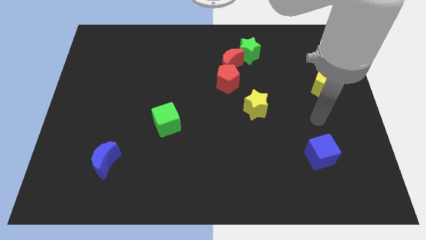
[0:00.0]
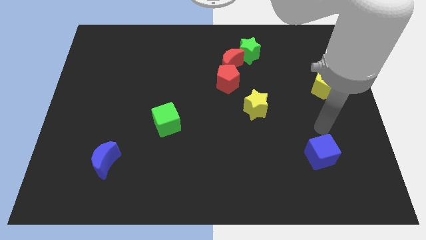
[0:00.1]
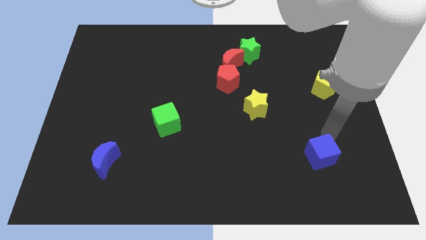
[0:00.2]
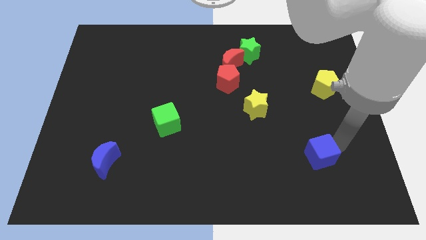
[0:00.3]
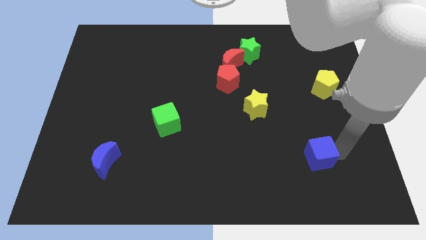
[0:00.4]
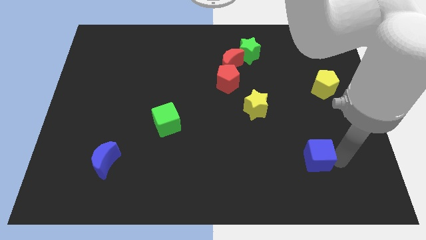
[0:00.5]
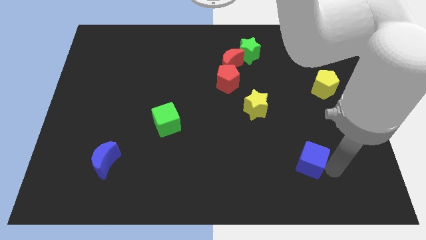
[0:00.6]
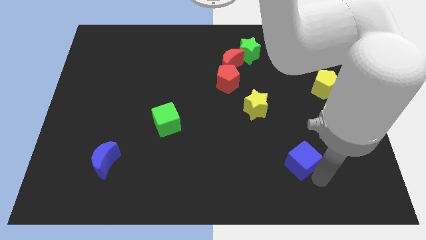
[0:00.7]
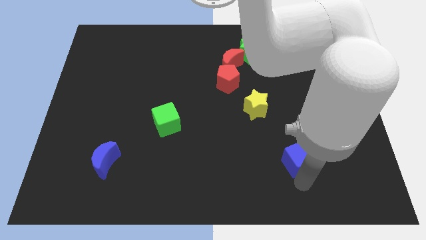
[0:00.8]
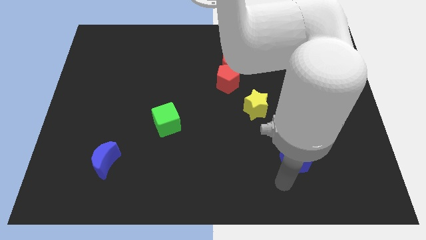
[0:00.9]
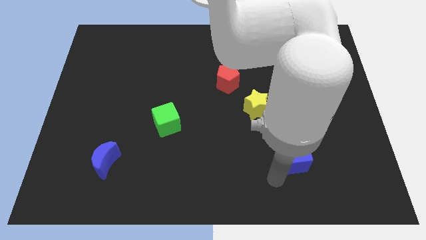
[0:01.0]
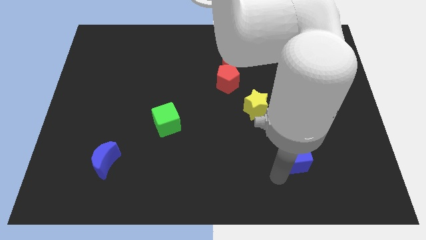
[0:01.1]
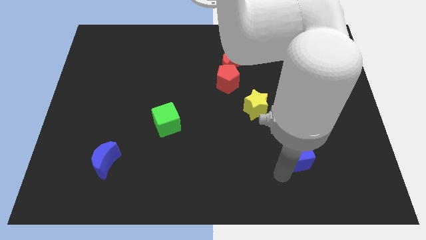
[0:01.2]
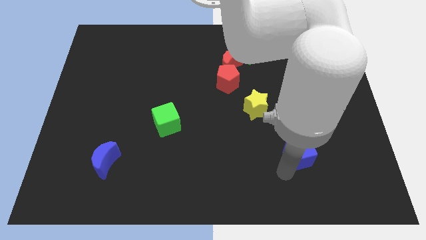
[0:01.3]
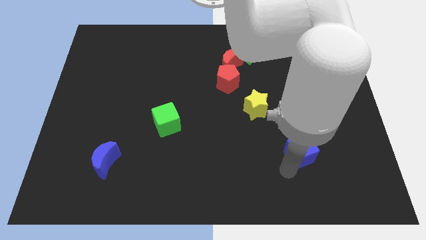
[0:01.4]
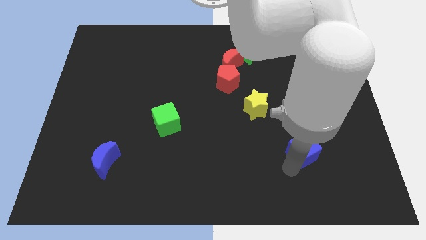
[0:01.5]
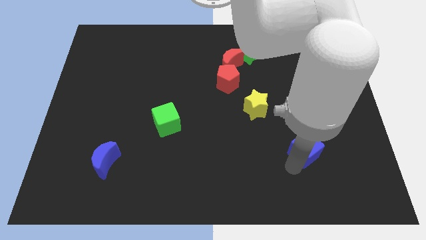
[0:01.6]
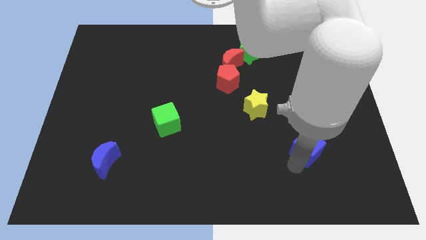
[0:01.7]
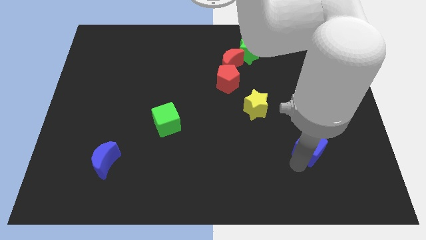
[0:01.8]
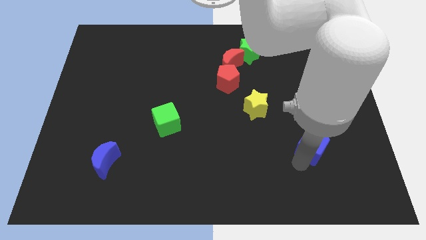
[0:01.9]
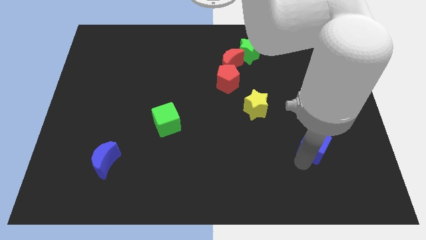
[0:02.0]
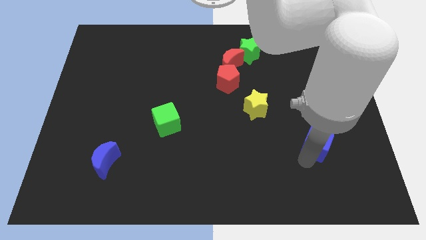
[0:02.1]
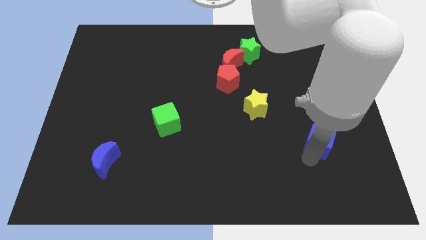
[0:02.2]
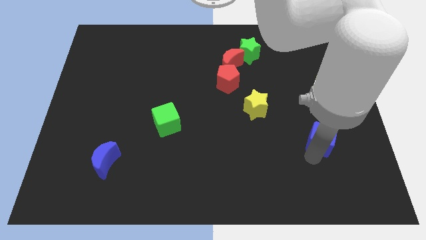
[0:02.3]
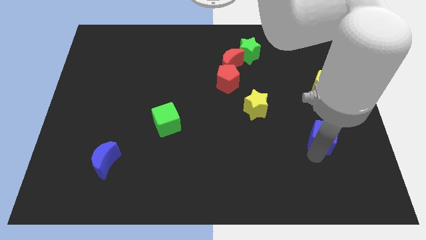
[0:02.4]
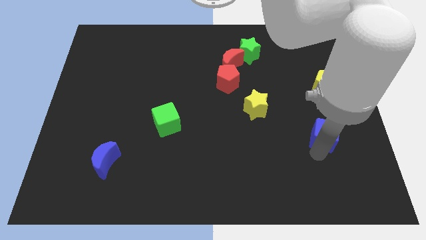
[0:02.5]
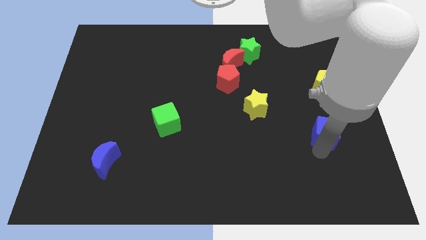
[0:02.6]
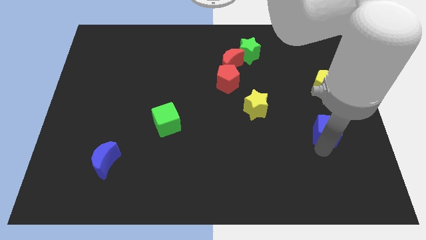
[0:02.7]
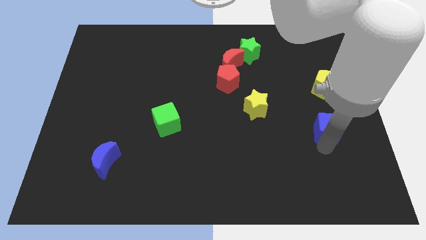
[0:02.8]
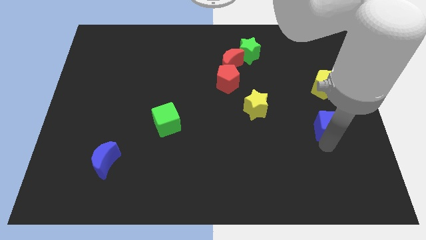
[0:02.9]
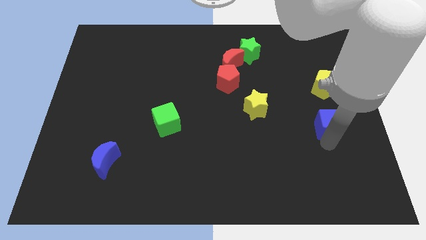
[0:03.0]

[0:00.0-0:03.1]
slide the blue cube a bit upwards

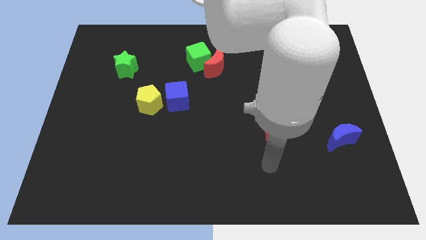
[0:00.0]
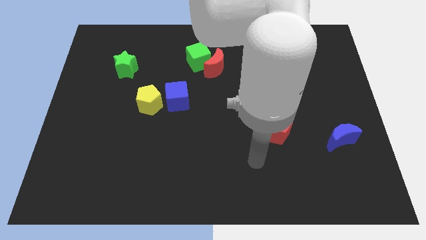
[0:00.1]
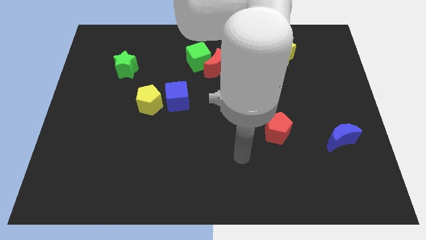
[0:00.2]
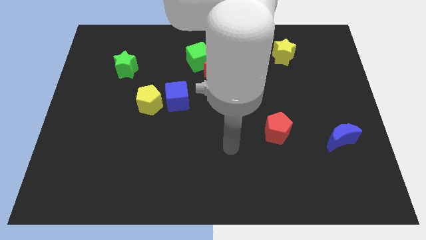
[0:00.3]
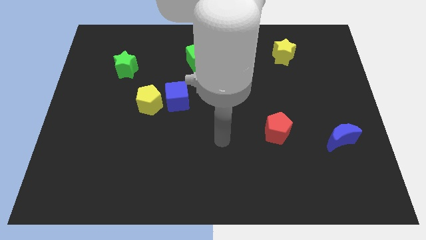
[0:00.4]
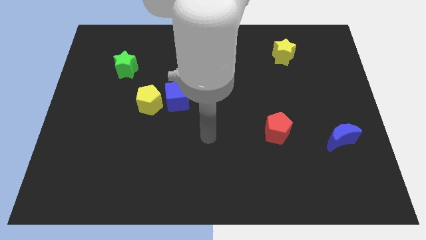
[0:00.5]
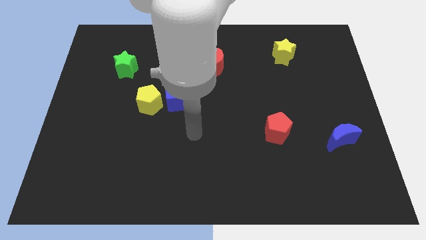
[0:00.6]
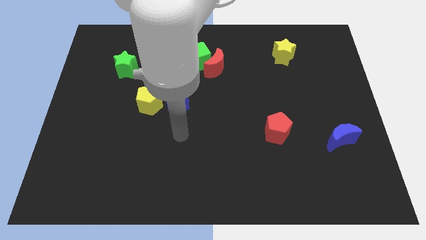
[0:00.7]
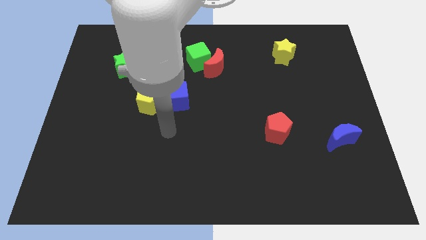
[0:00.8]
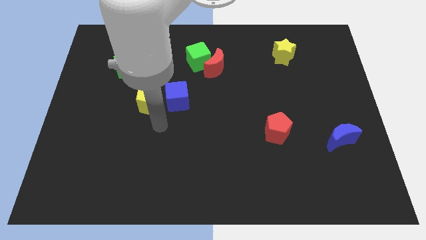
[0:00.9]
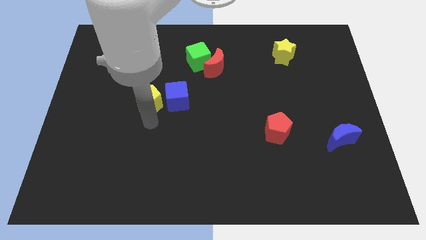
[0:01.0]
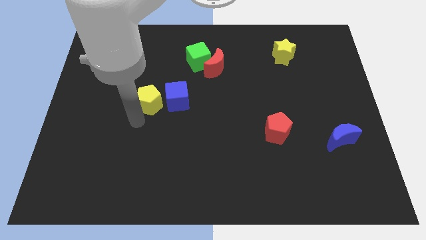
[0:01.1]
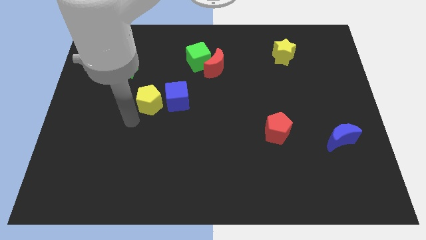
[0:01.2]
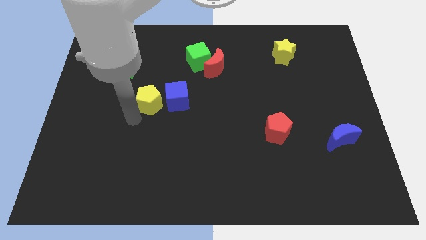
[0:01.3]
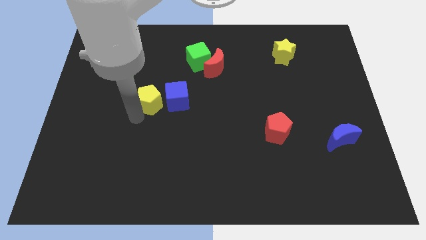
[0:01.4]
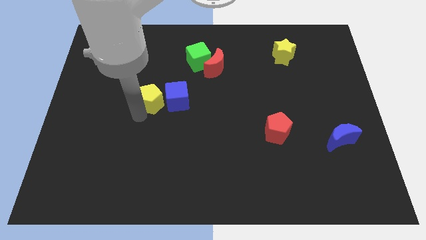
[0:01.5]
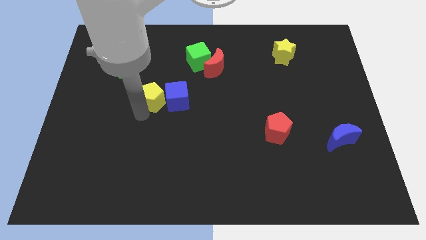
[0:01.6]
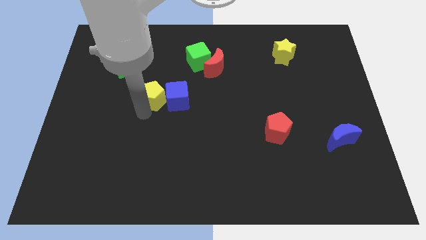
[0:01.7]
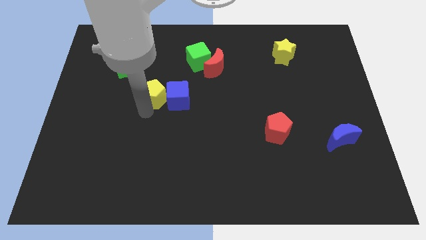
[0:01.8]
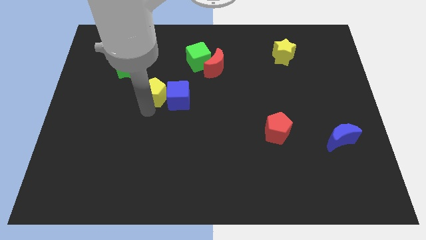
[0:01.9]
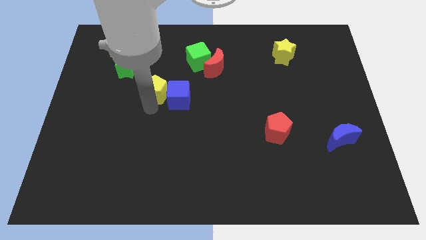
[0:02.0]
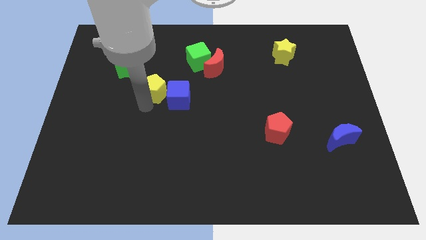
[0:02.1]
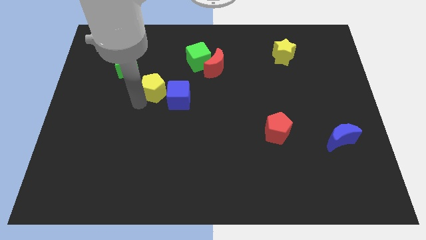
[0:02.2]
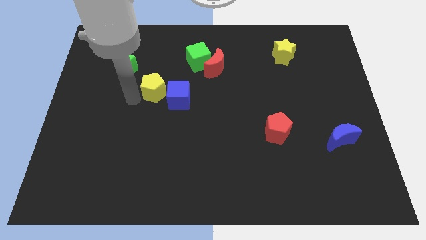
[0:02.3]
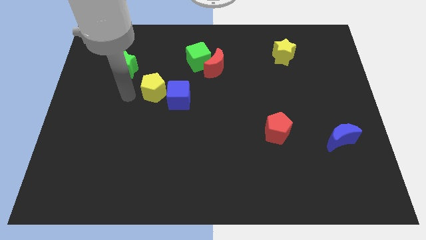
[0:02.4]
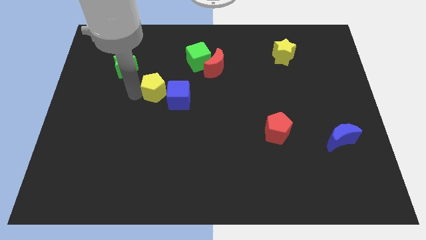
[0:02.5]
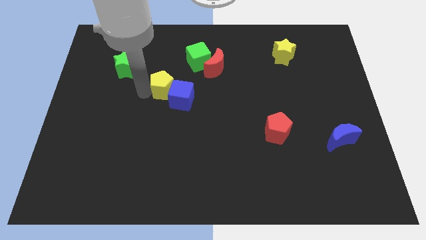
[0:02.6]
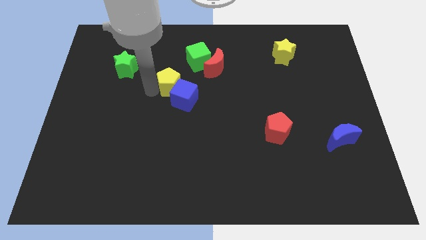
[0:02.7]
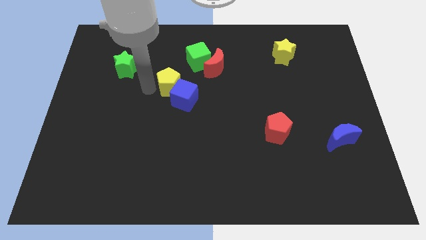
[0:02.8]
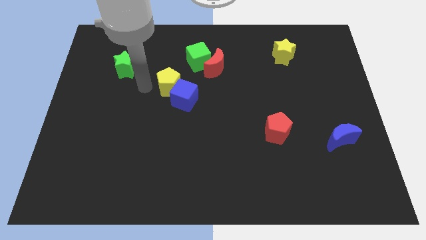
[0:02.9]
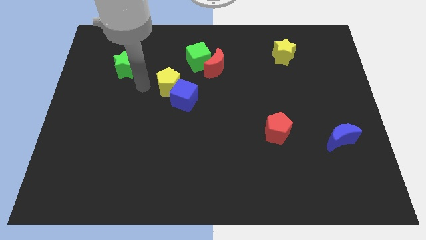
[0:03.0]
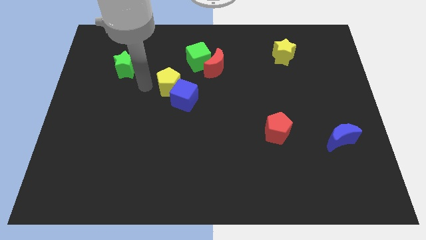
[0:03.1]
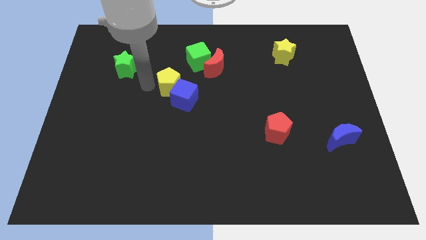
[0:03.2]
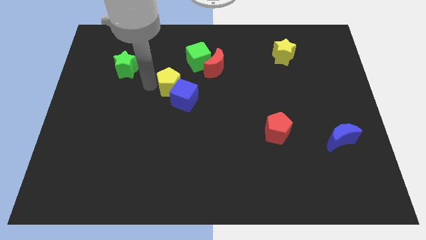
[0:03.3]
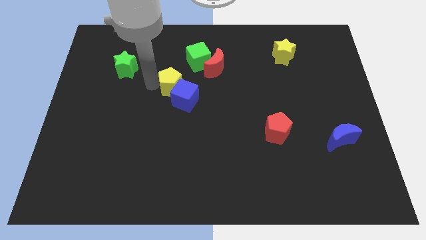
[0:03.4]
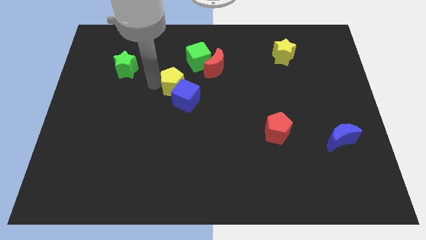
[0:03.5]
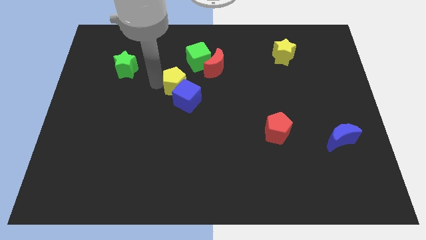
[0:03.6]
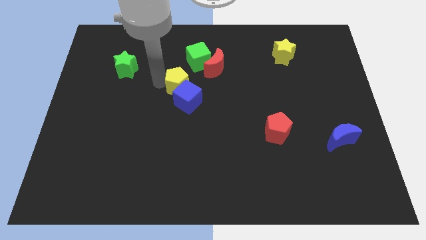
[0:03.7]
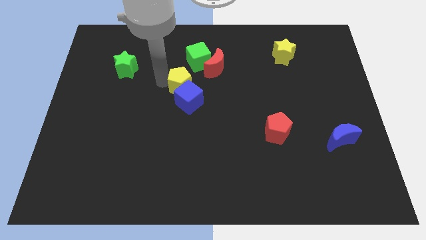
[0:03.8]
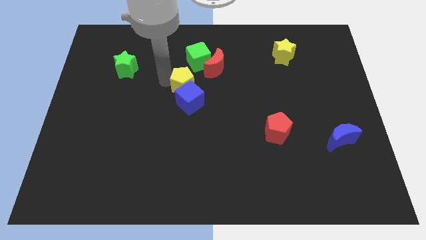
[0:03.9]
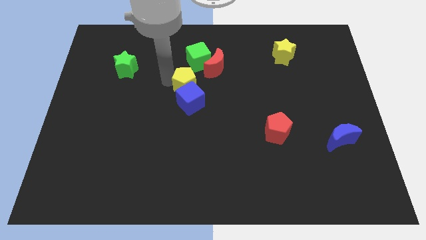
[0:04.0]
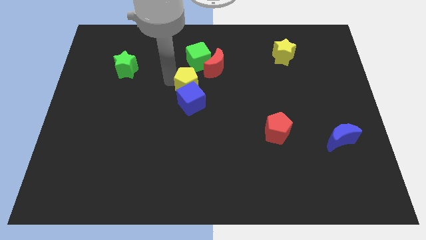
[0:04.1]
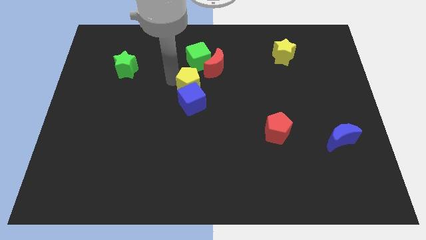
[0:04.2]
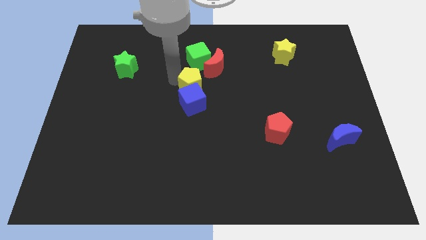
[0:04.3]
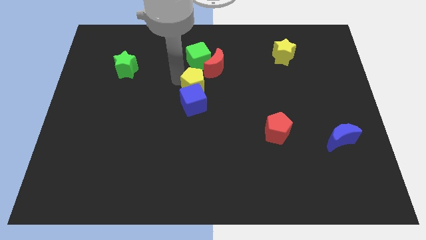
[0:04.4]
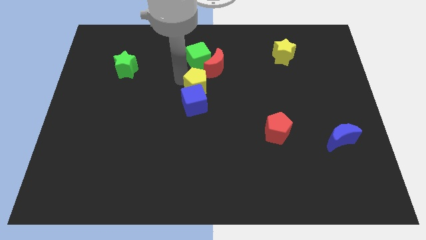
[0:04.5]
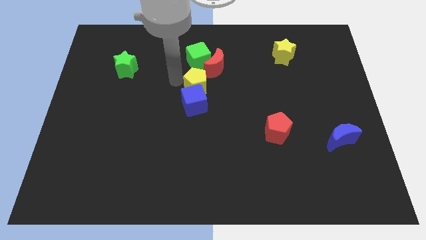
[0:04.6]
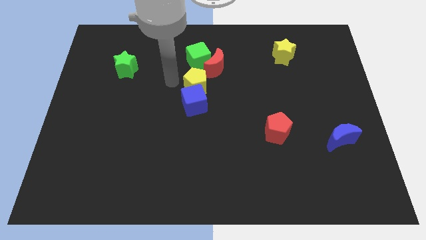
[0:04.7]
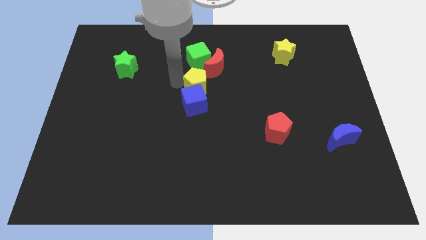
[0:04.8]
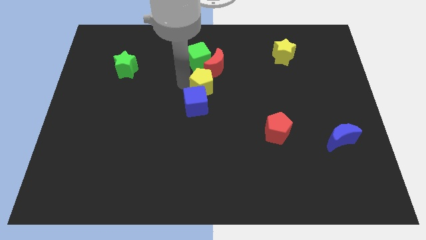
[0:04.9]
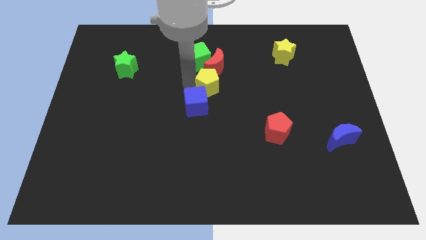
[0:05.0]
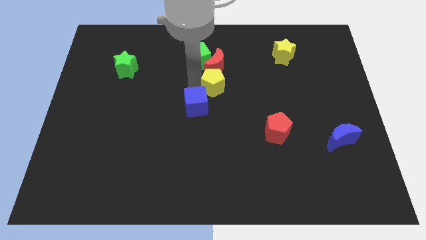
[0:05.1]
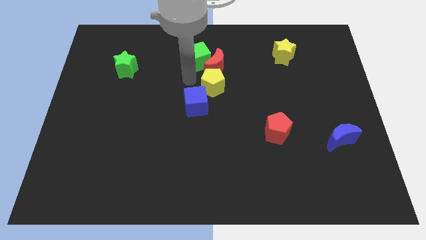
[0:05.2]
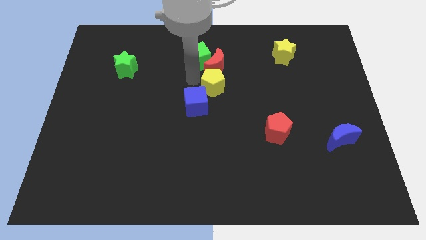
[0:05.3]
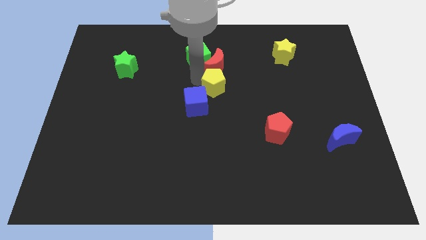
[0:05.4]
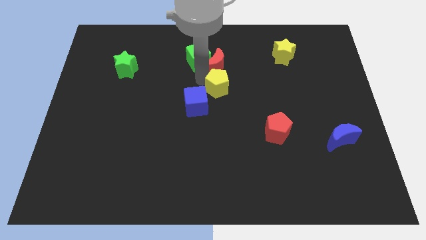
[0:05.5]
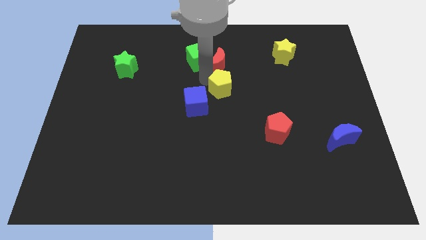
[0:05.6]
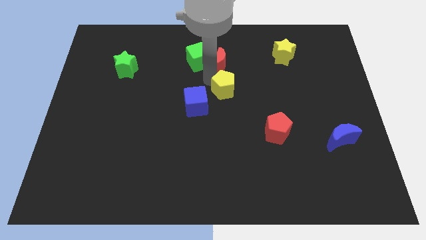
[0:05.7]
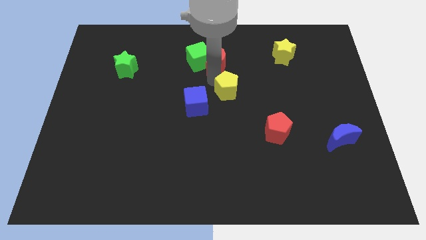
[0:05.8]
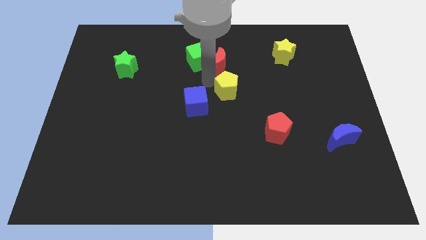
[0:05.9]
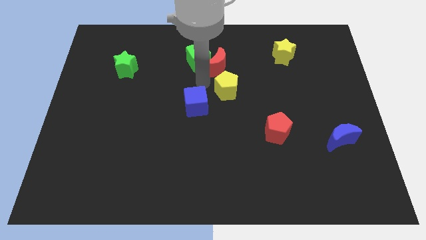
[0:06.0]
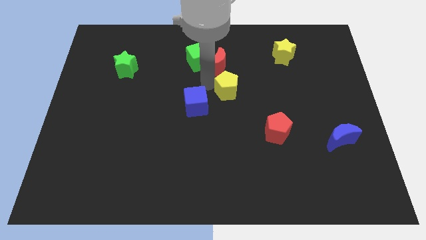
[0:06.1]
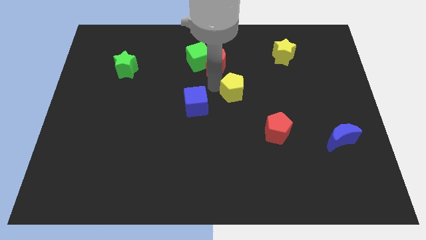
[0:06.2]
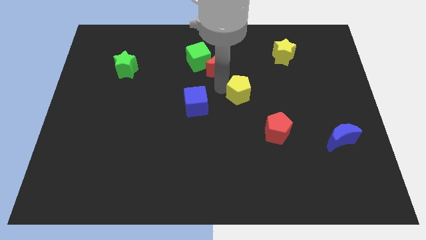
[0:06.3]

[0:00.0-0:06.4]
move the yellow pentagon right
